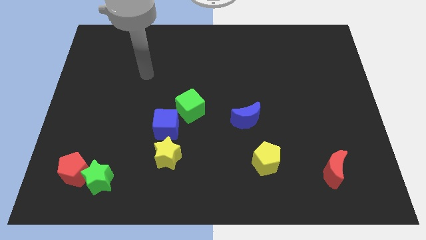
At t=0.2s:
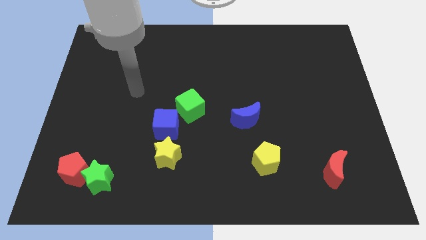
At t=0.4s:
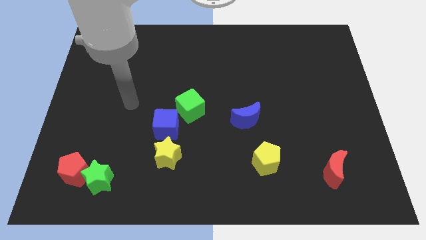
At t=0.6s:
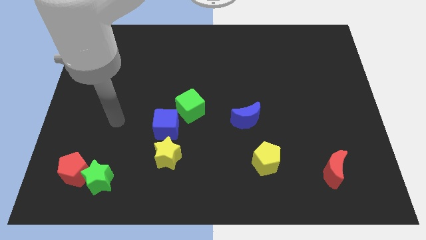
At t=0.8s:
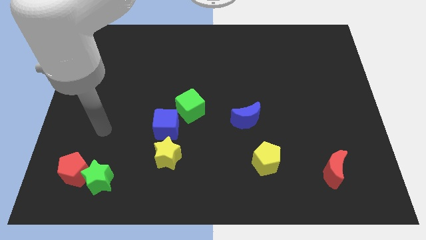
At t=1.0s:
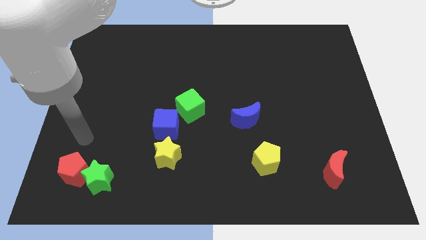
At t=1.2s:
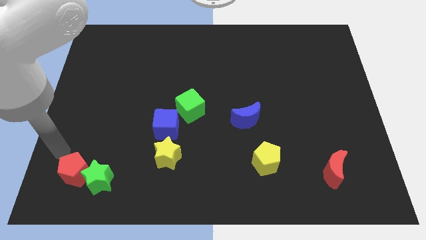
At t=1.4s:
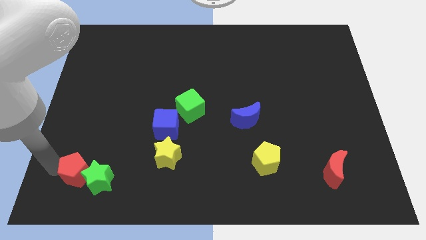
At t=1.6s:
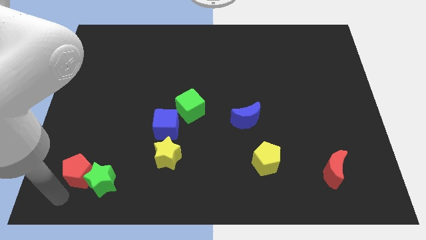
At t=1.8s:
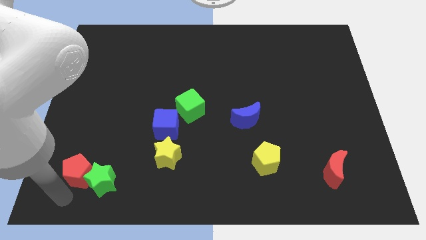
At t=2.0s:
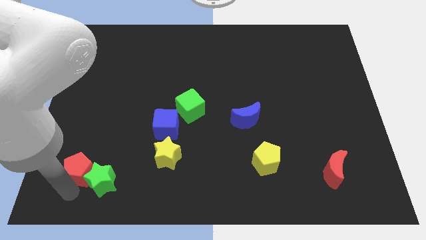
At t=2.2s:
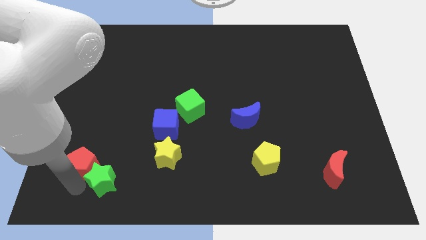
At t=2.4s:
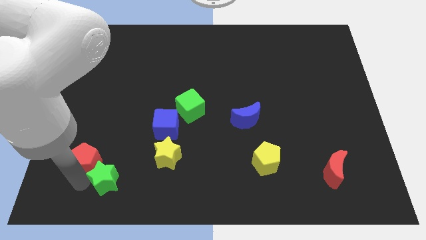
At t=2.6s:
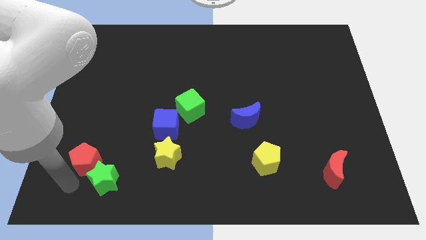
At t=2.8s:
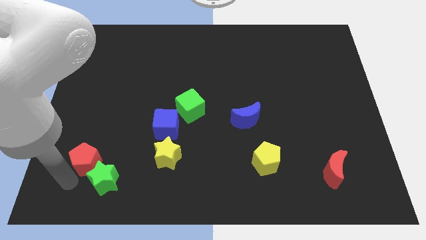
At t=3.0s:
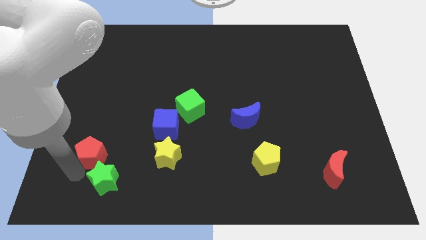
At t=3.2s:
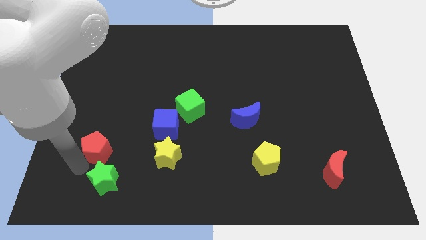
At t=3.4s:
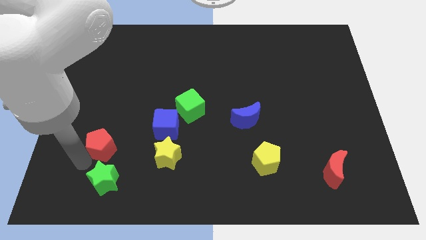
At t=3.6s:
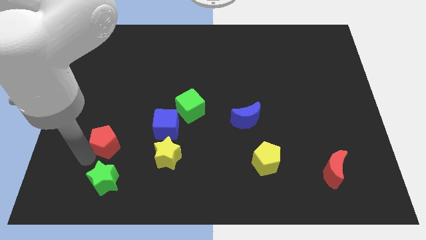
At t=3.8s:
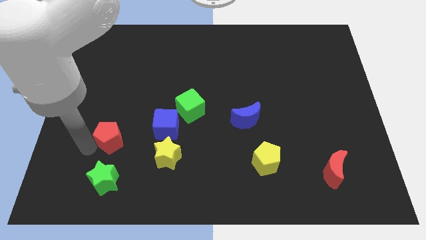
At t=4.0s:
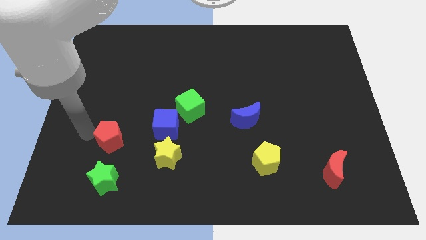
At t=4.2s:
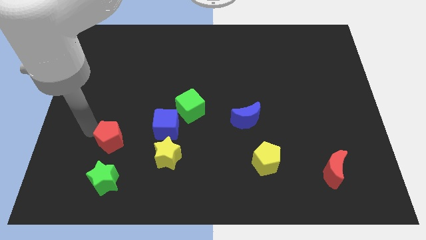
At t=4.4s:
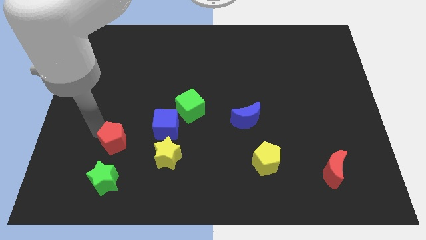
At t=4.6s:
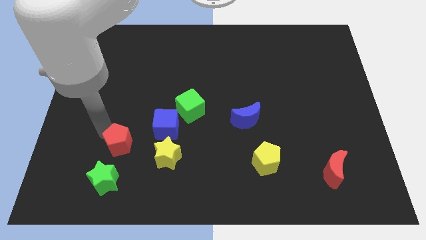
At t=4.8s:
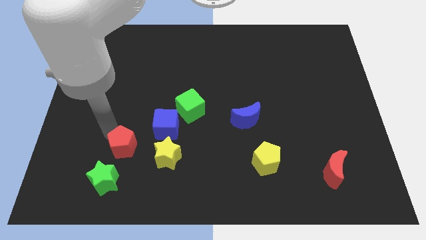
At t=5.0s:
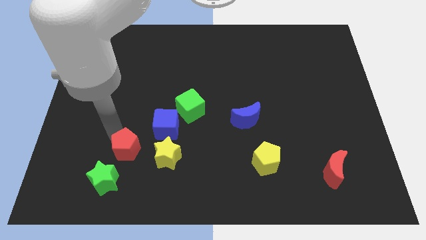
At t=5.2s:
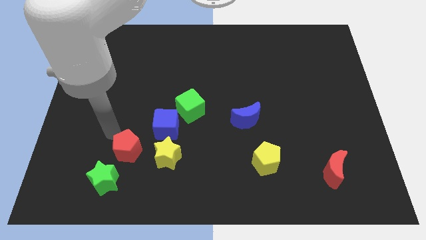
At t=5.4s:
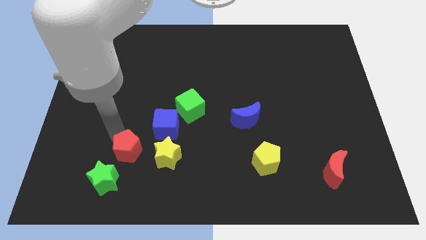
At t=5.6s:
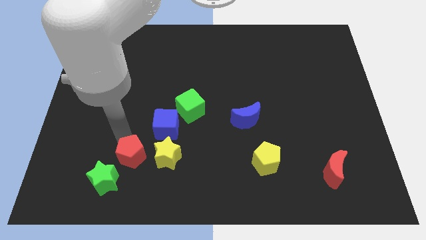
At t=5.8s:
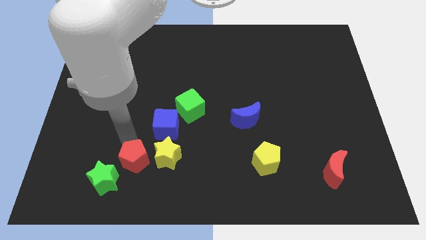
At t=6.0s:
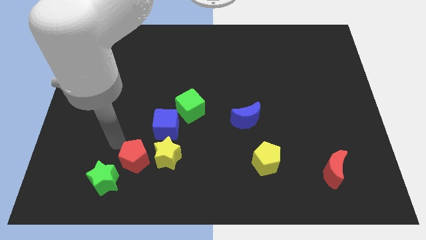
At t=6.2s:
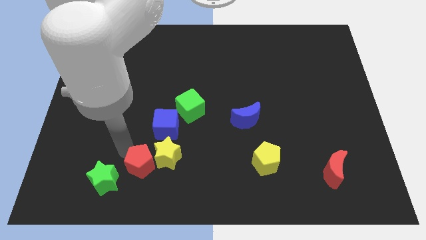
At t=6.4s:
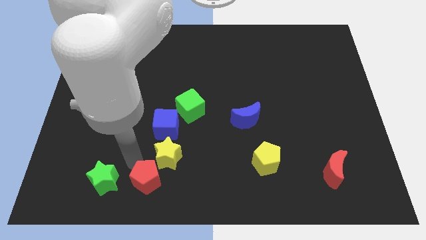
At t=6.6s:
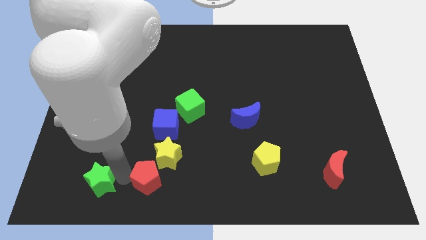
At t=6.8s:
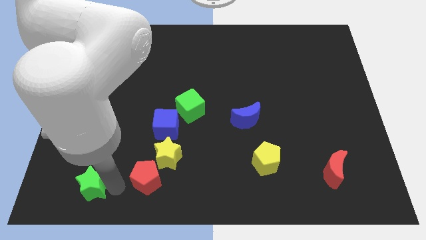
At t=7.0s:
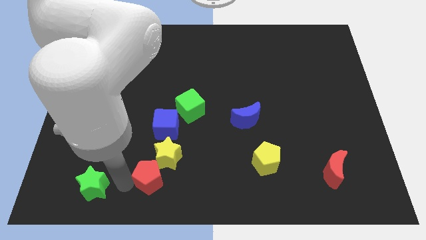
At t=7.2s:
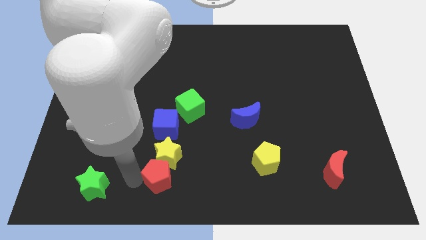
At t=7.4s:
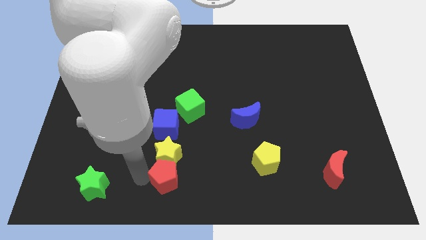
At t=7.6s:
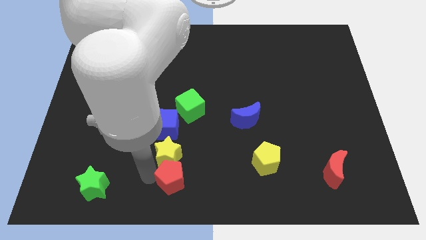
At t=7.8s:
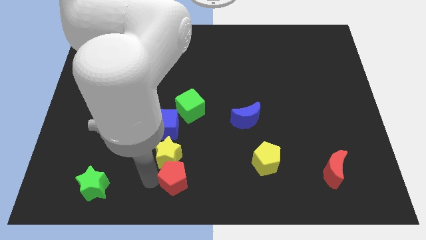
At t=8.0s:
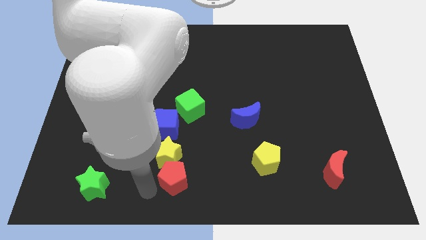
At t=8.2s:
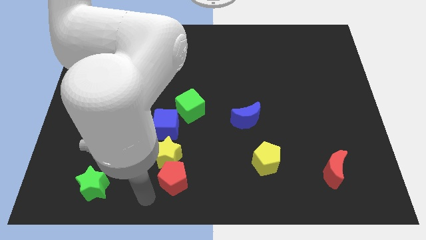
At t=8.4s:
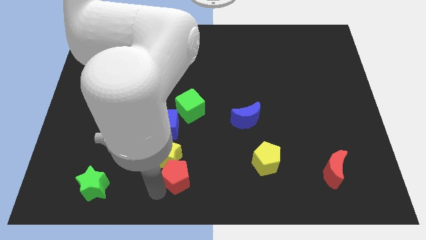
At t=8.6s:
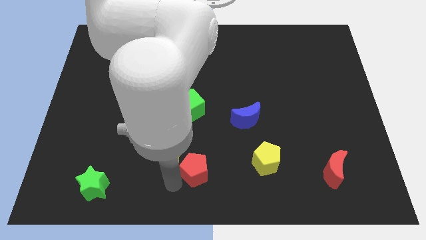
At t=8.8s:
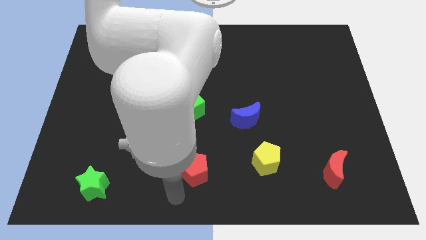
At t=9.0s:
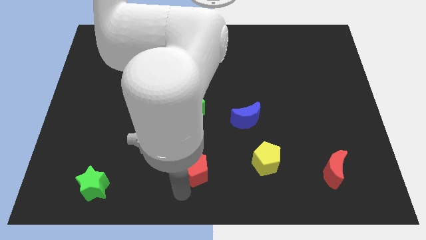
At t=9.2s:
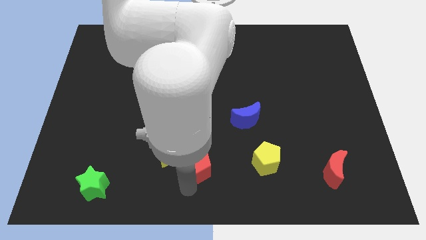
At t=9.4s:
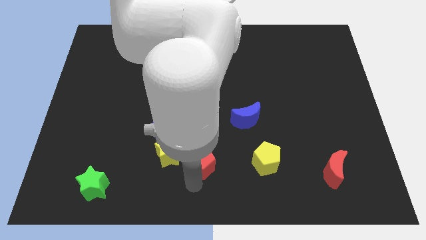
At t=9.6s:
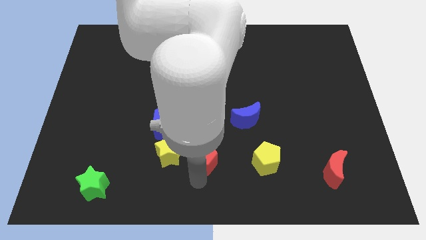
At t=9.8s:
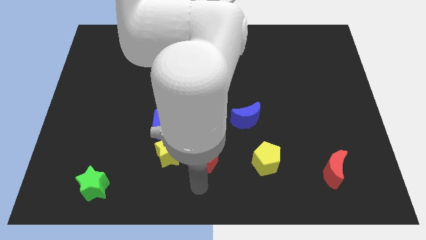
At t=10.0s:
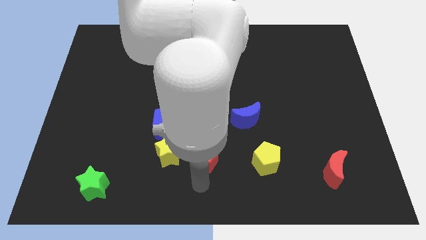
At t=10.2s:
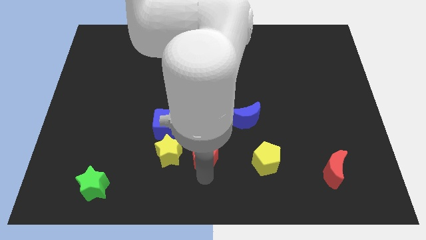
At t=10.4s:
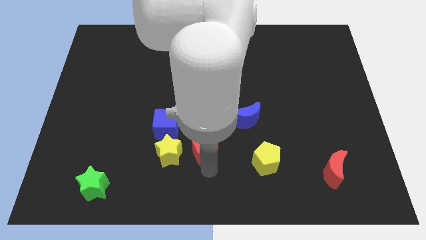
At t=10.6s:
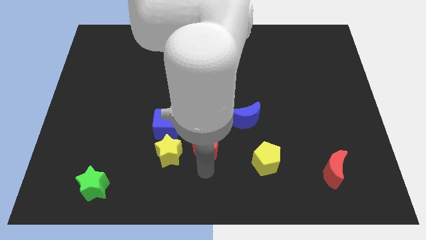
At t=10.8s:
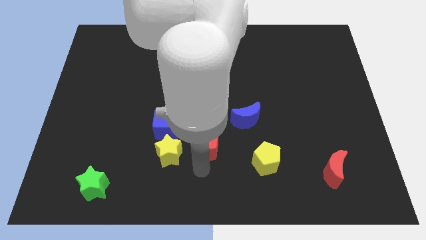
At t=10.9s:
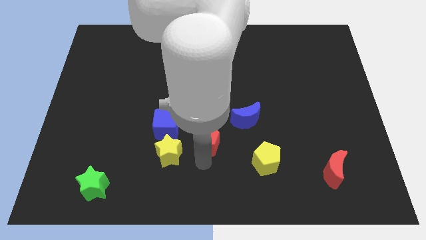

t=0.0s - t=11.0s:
push the red pentagon to the right side of the blue cube
